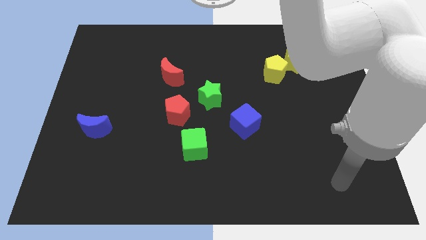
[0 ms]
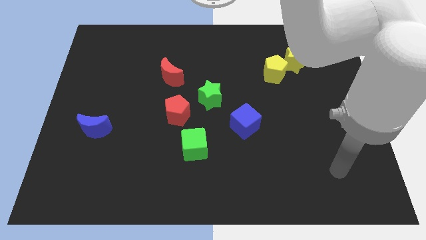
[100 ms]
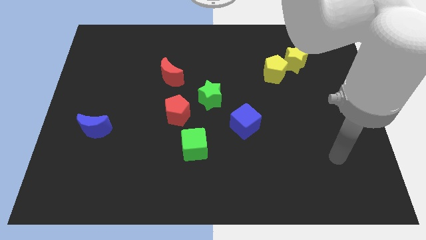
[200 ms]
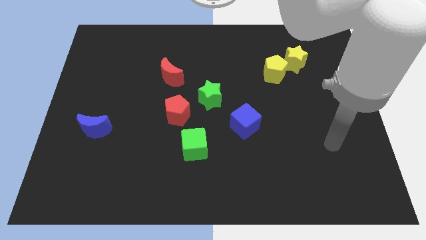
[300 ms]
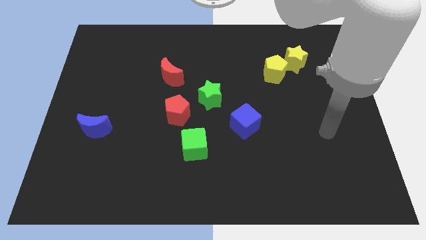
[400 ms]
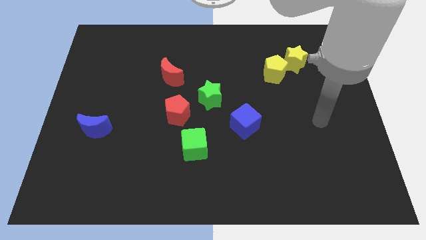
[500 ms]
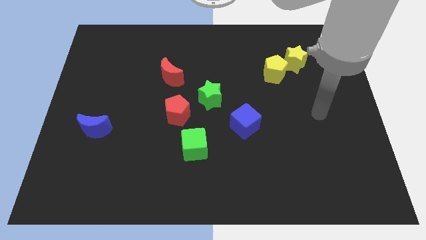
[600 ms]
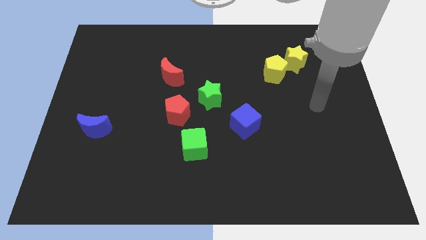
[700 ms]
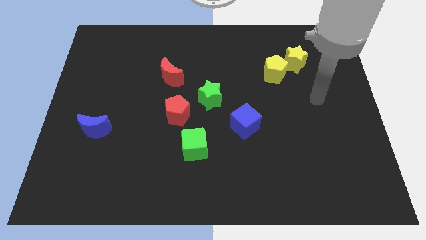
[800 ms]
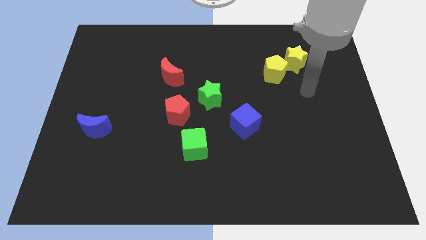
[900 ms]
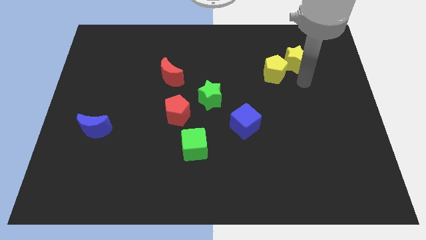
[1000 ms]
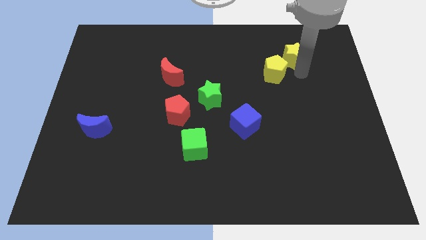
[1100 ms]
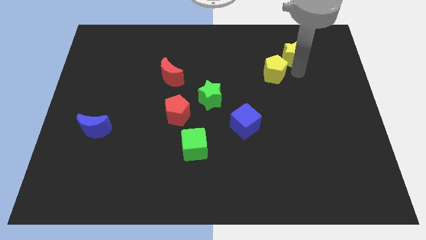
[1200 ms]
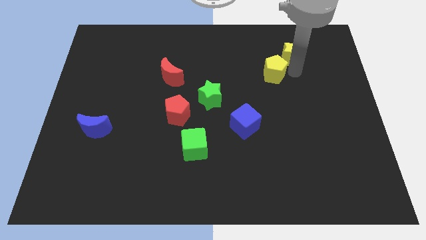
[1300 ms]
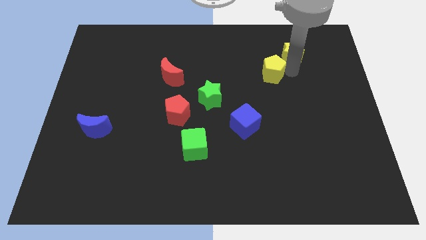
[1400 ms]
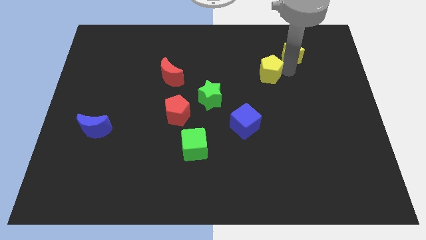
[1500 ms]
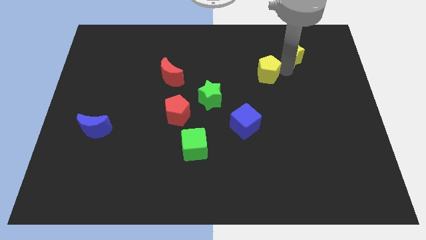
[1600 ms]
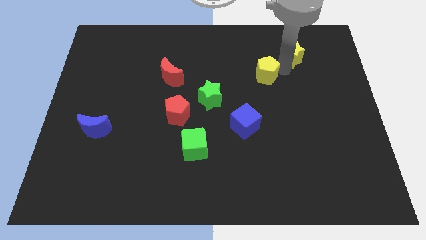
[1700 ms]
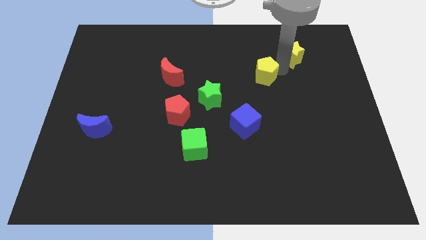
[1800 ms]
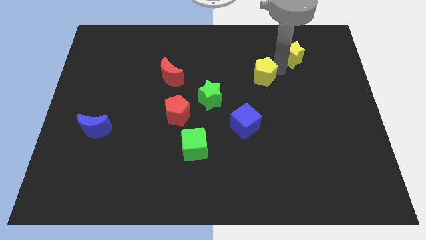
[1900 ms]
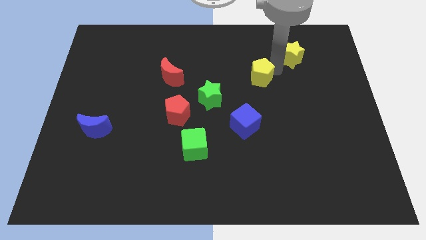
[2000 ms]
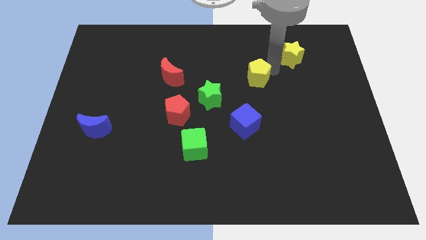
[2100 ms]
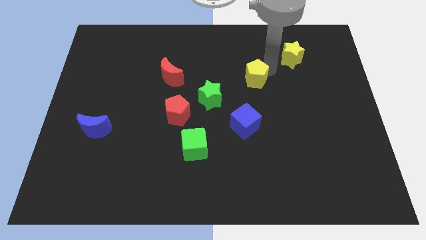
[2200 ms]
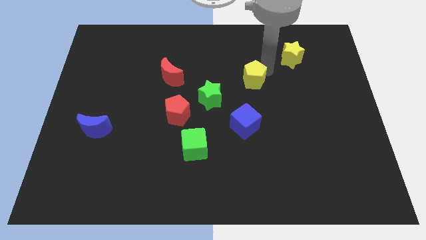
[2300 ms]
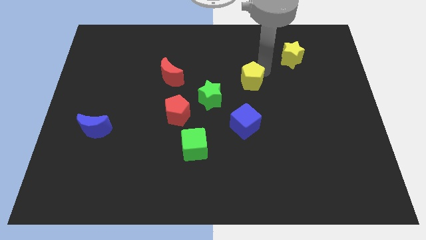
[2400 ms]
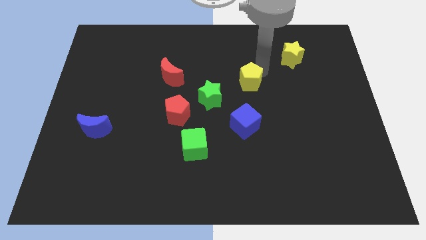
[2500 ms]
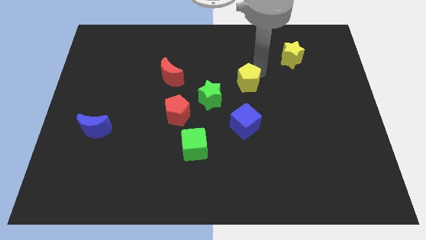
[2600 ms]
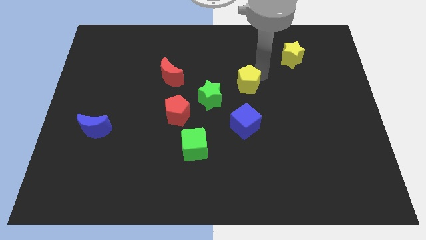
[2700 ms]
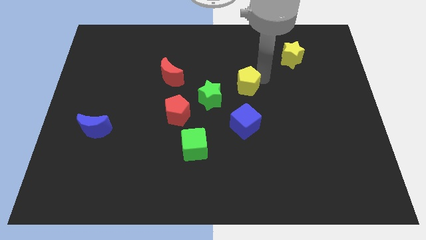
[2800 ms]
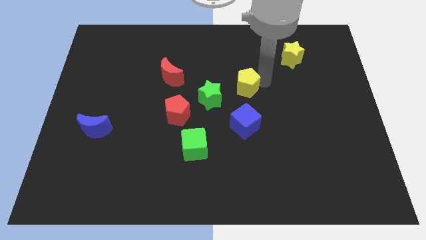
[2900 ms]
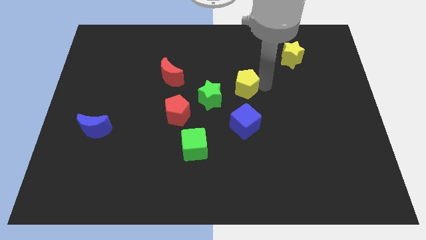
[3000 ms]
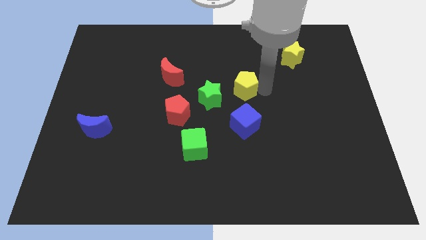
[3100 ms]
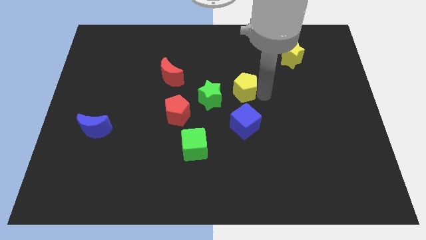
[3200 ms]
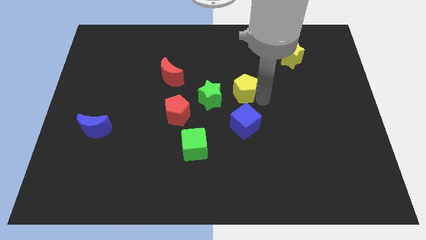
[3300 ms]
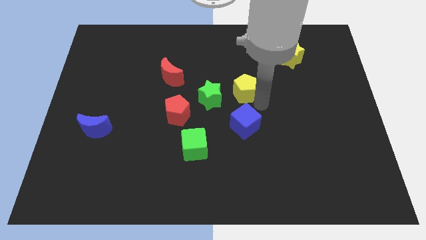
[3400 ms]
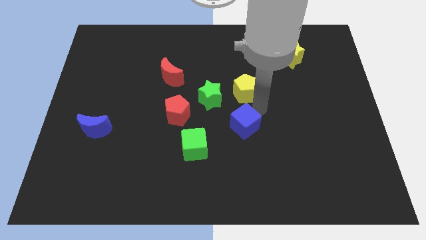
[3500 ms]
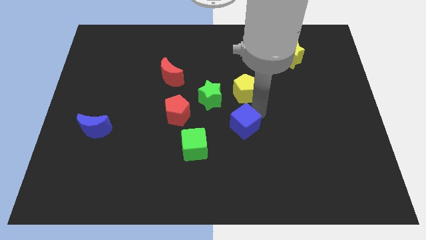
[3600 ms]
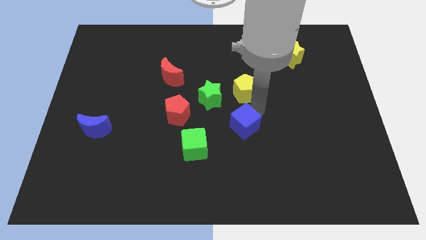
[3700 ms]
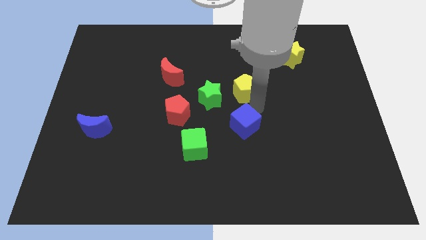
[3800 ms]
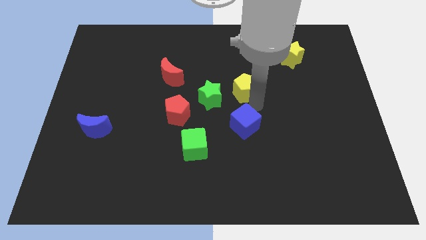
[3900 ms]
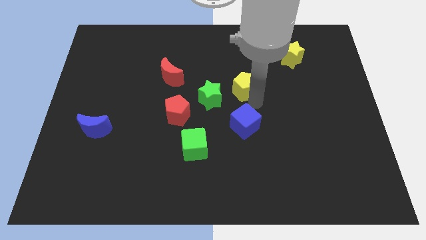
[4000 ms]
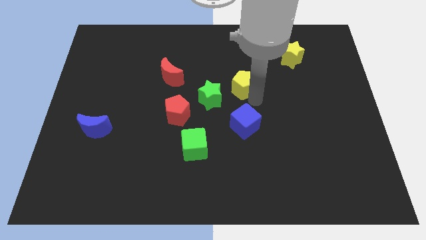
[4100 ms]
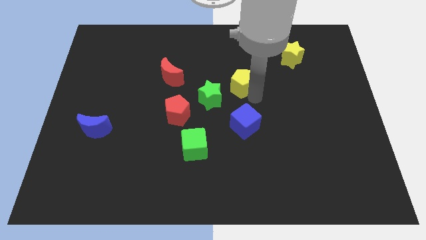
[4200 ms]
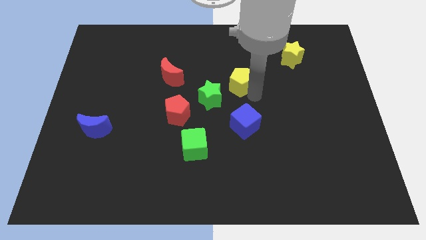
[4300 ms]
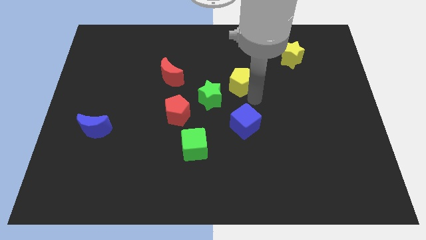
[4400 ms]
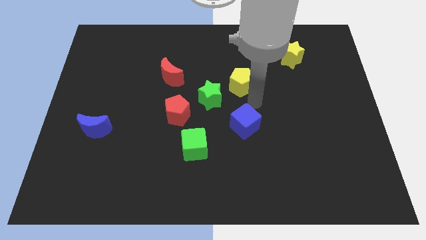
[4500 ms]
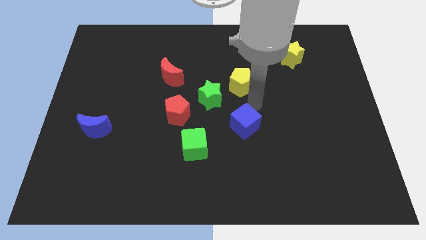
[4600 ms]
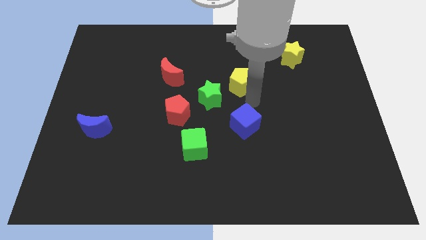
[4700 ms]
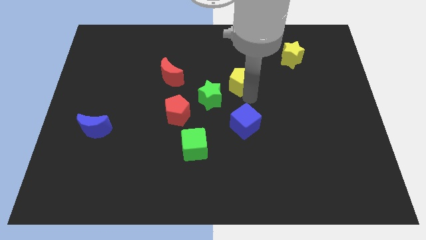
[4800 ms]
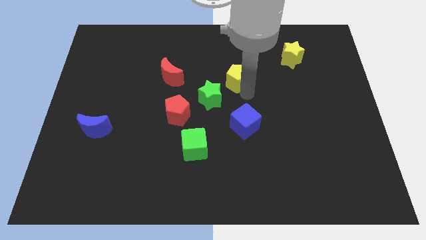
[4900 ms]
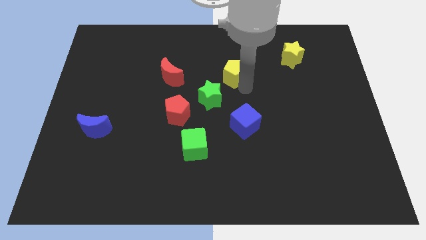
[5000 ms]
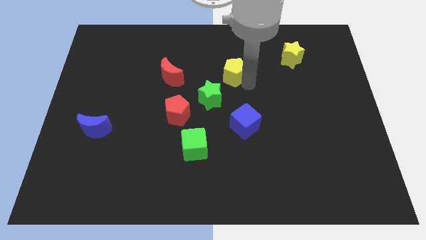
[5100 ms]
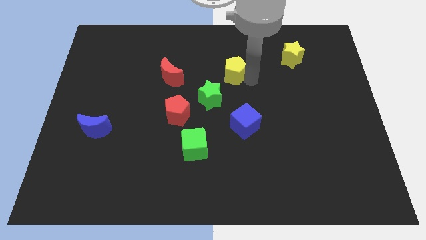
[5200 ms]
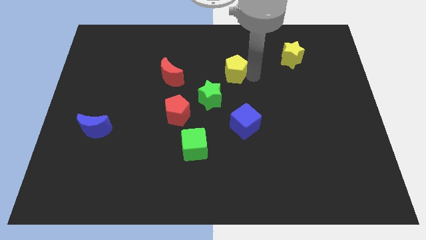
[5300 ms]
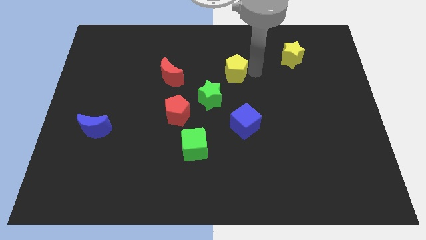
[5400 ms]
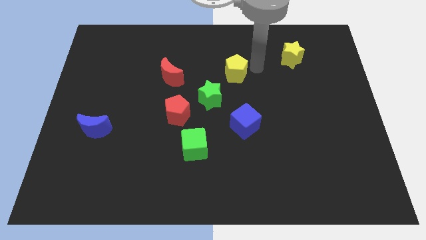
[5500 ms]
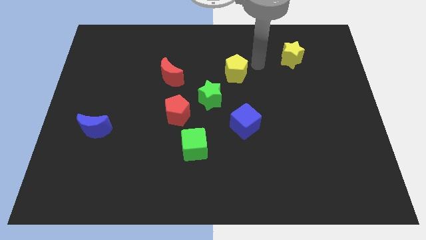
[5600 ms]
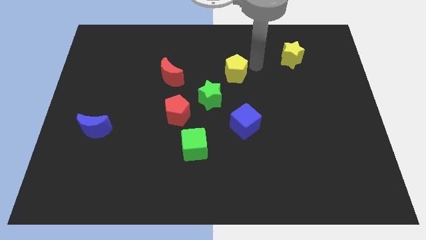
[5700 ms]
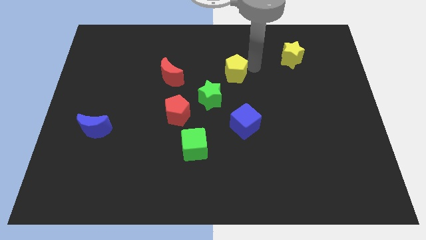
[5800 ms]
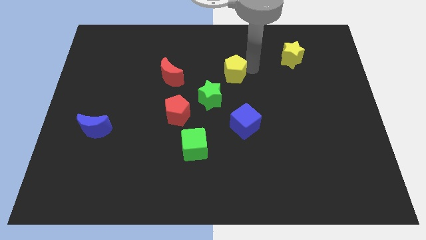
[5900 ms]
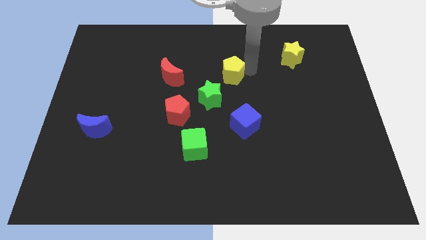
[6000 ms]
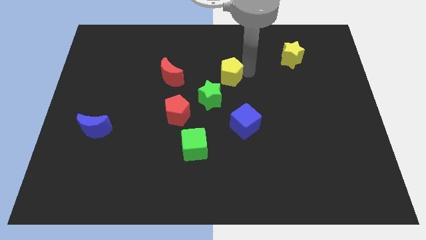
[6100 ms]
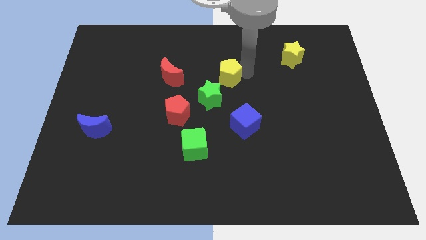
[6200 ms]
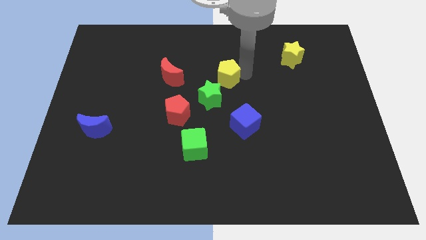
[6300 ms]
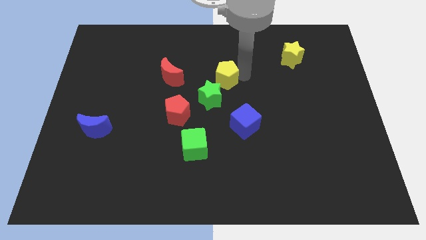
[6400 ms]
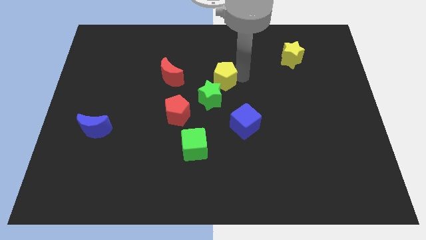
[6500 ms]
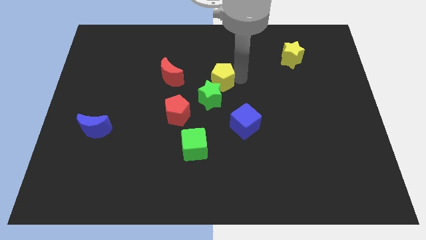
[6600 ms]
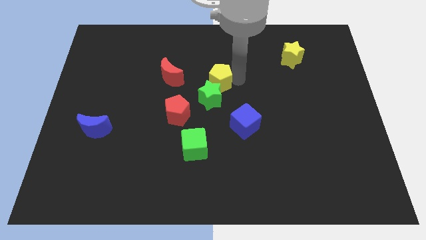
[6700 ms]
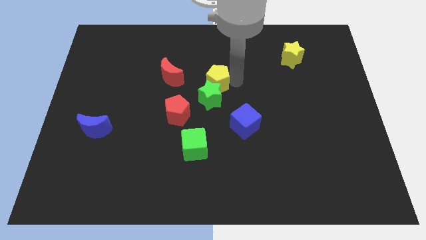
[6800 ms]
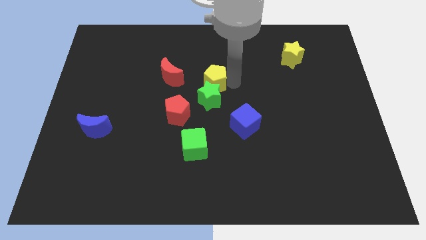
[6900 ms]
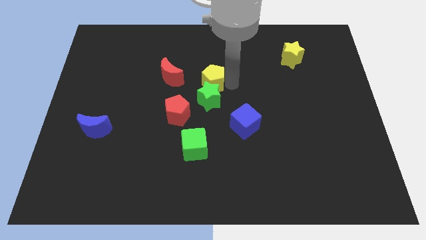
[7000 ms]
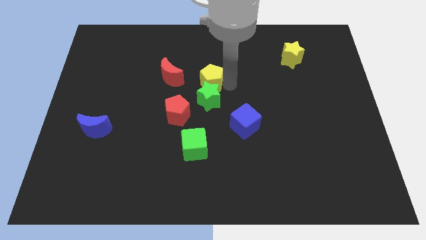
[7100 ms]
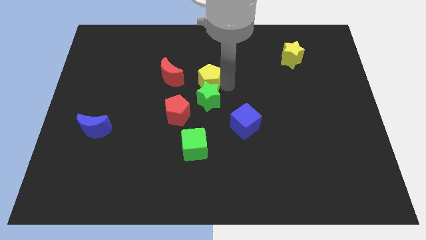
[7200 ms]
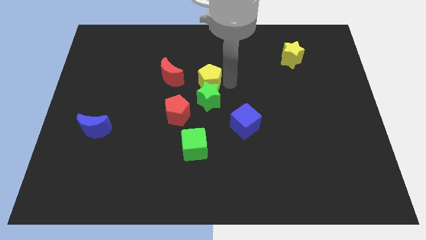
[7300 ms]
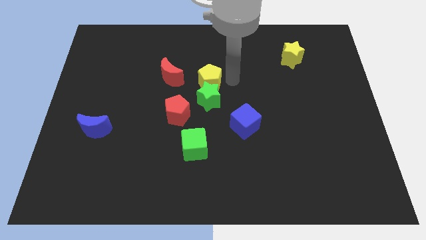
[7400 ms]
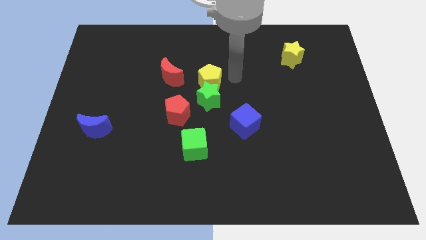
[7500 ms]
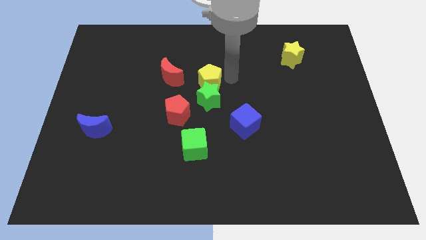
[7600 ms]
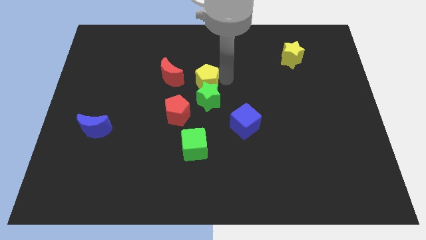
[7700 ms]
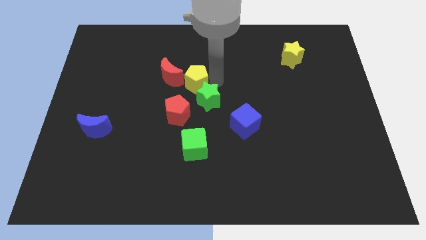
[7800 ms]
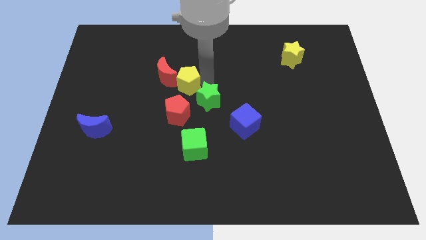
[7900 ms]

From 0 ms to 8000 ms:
push the yellow pentagon left
